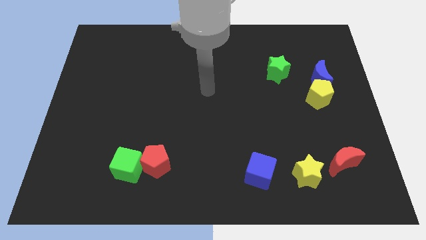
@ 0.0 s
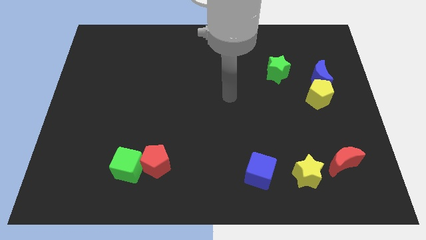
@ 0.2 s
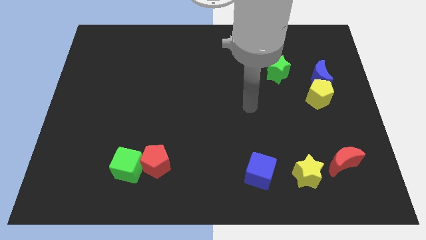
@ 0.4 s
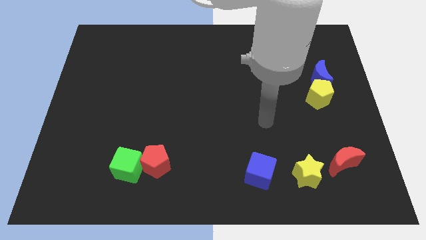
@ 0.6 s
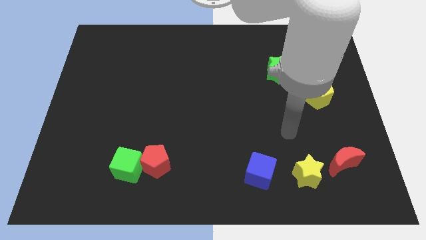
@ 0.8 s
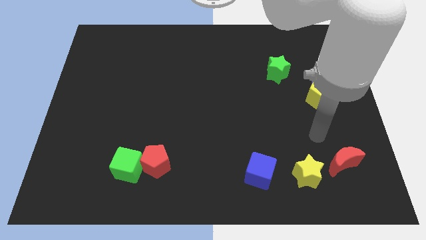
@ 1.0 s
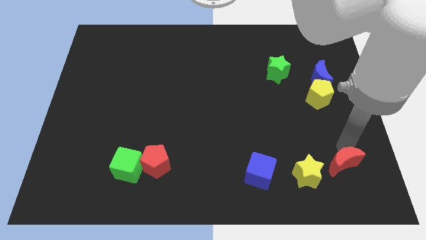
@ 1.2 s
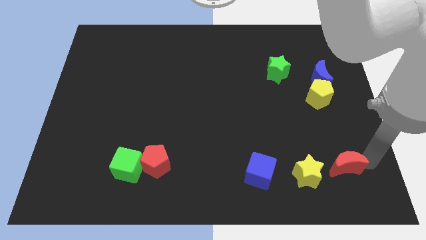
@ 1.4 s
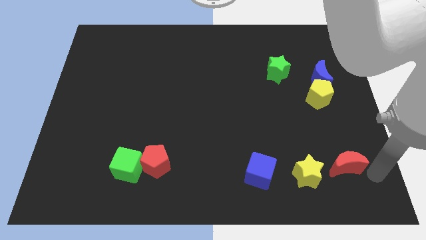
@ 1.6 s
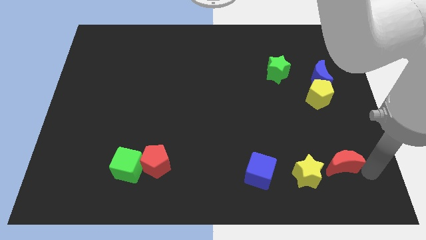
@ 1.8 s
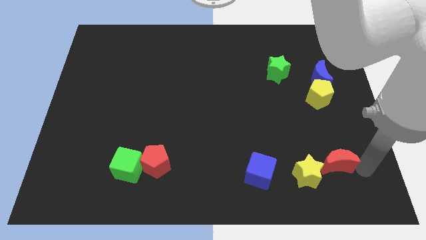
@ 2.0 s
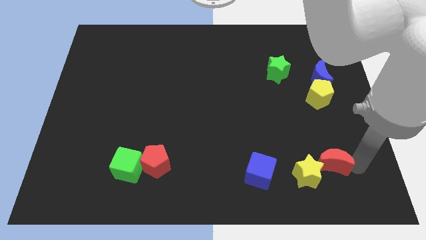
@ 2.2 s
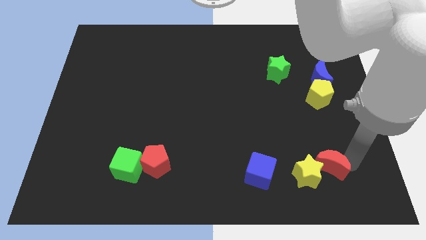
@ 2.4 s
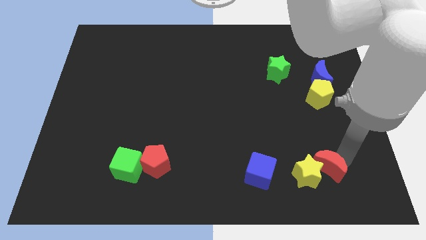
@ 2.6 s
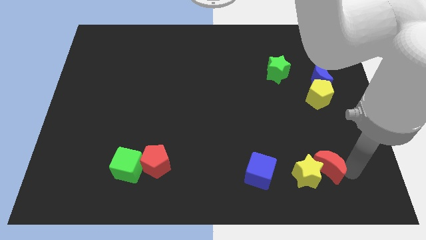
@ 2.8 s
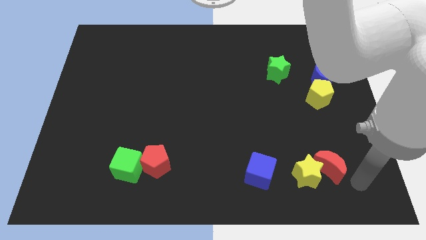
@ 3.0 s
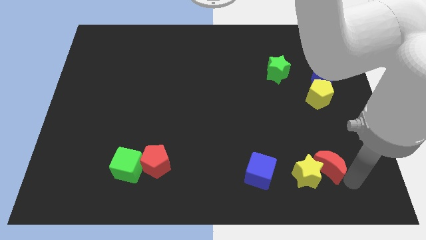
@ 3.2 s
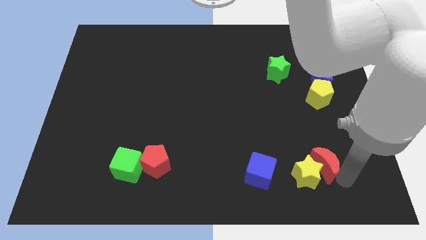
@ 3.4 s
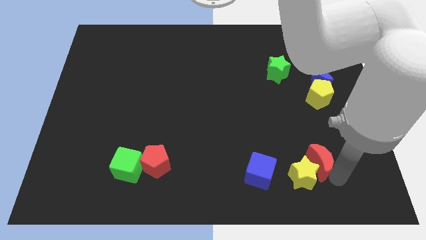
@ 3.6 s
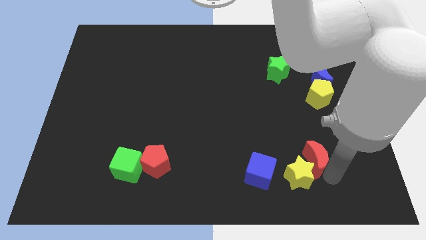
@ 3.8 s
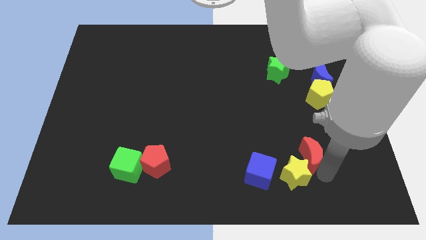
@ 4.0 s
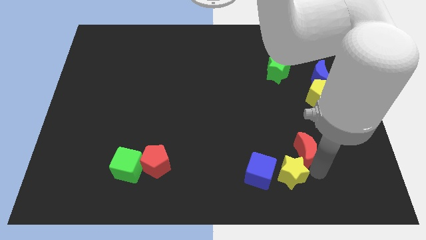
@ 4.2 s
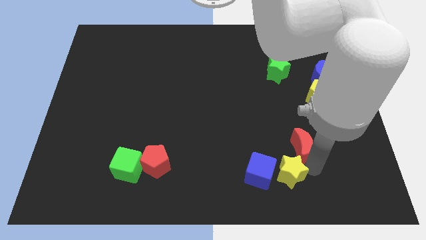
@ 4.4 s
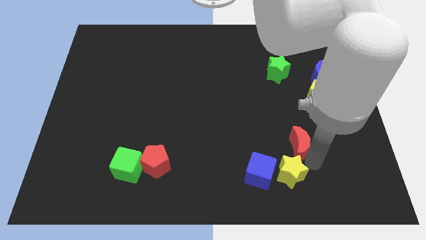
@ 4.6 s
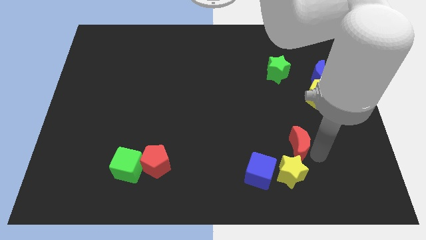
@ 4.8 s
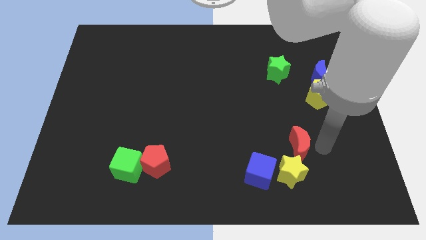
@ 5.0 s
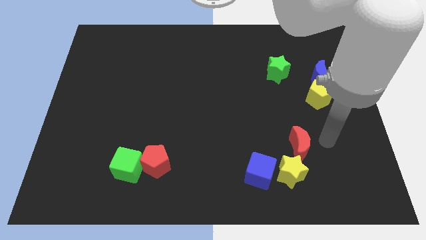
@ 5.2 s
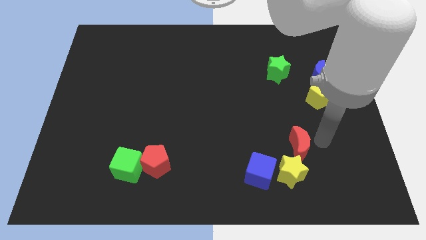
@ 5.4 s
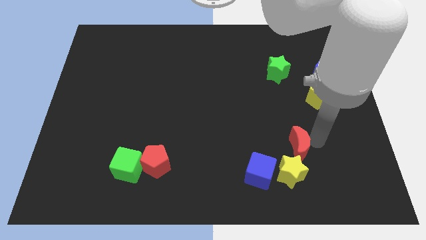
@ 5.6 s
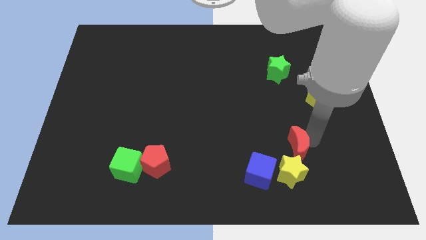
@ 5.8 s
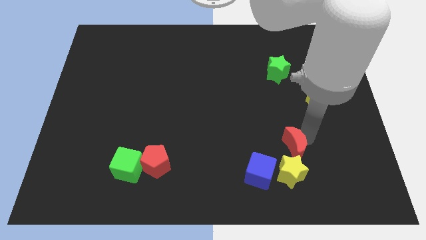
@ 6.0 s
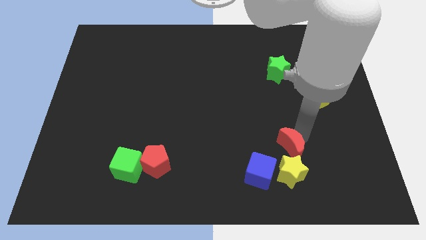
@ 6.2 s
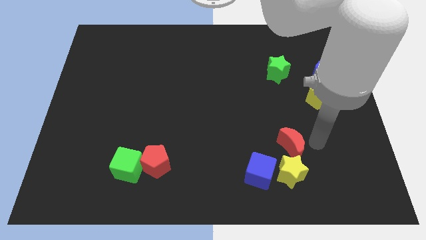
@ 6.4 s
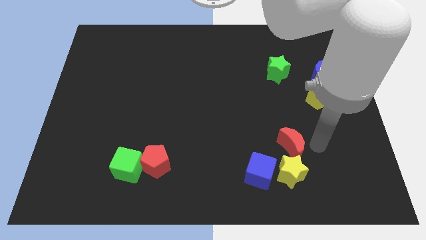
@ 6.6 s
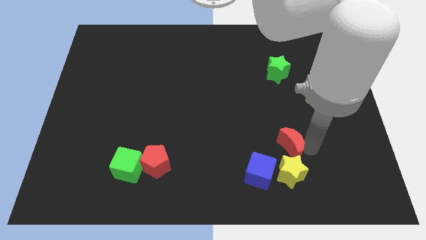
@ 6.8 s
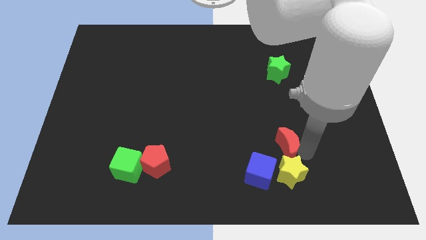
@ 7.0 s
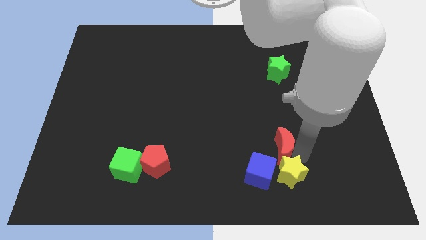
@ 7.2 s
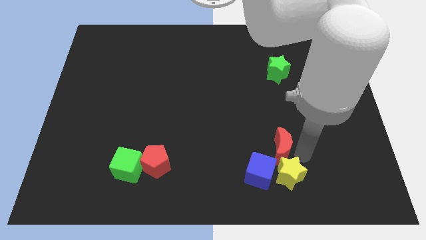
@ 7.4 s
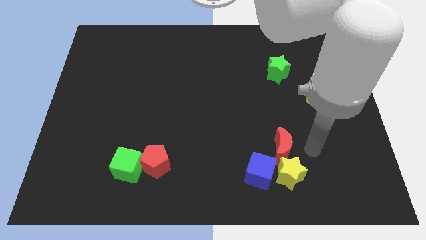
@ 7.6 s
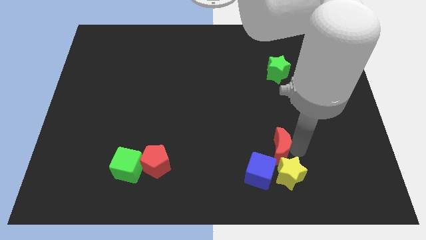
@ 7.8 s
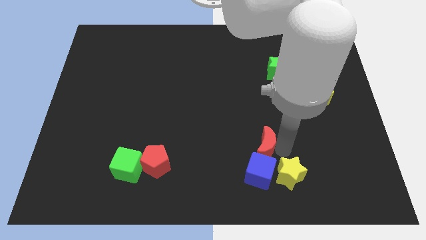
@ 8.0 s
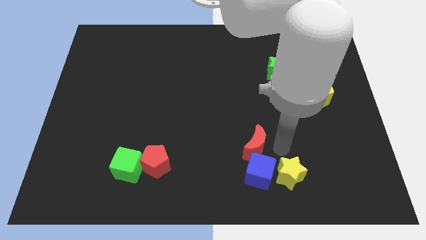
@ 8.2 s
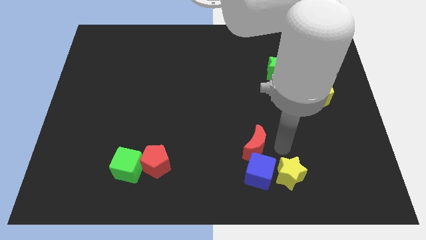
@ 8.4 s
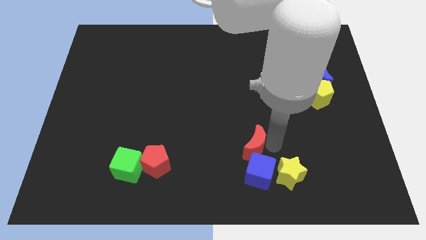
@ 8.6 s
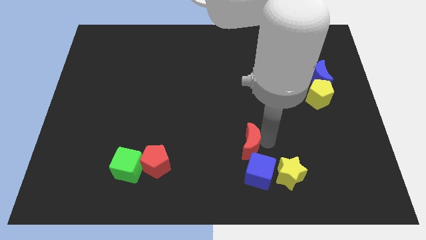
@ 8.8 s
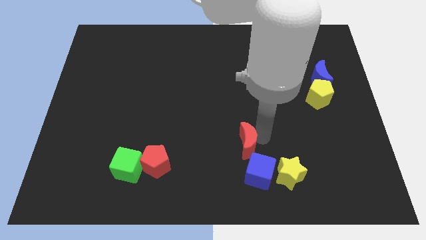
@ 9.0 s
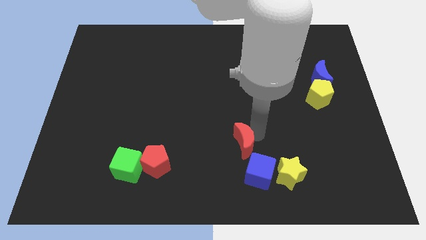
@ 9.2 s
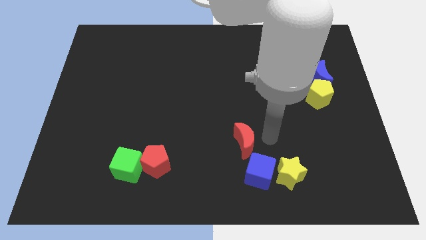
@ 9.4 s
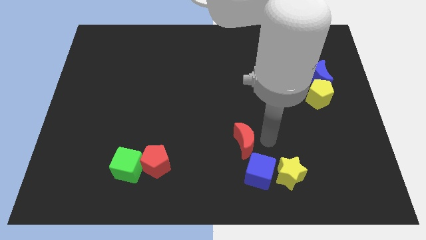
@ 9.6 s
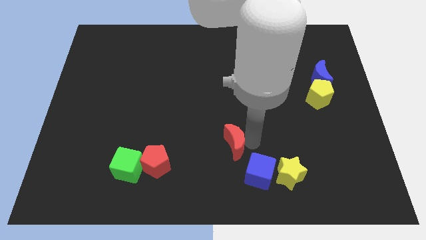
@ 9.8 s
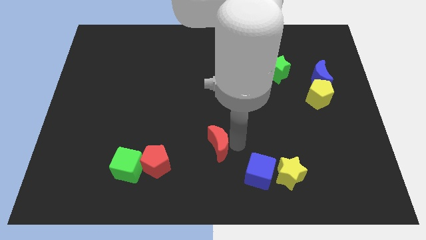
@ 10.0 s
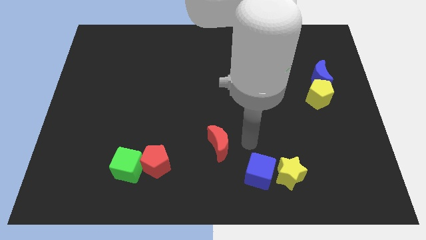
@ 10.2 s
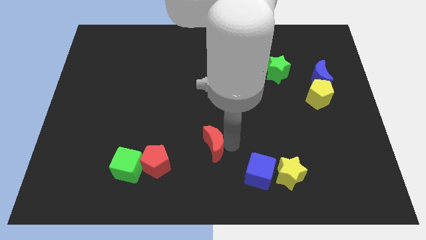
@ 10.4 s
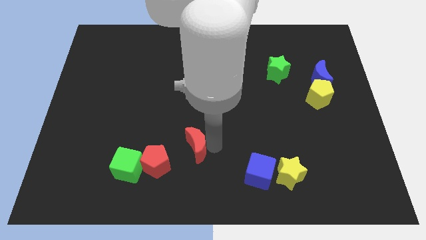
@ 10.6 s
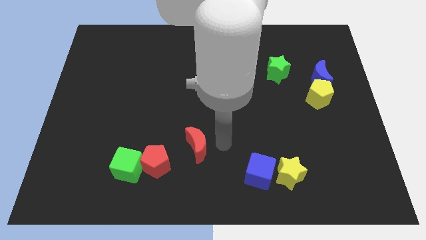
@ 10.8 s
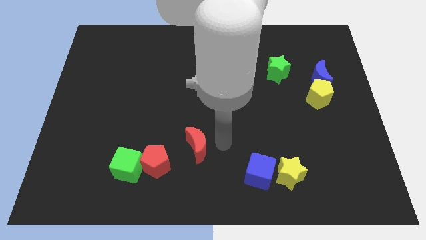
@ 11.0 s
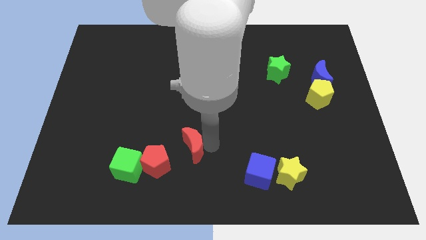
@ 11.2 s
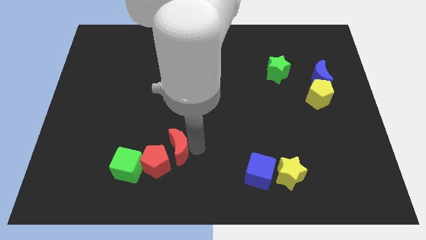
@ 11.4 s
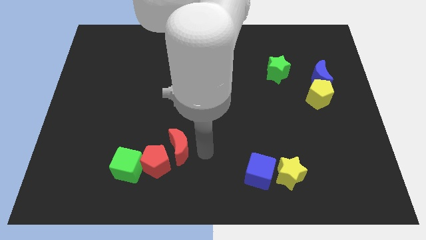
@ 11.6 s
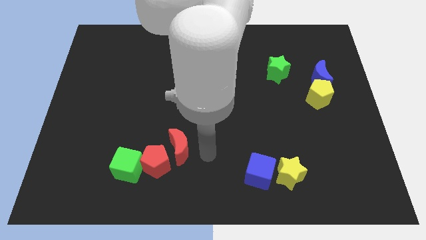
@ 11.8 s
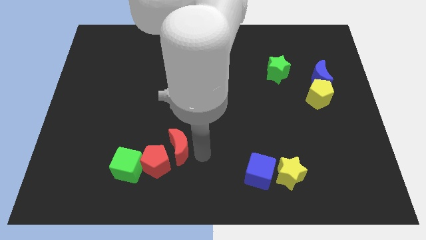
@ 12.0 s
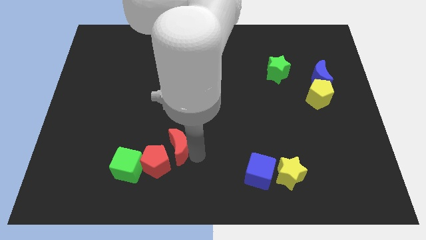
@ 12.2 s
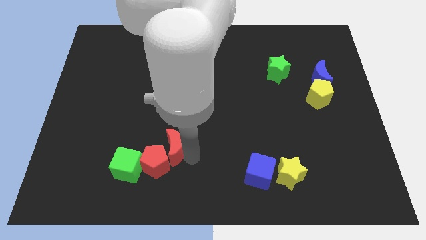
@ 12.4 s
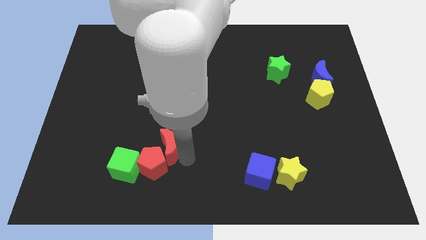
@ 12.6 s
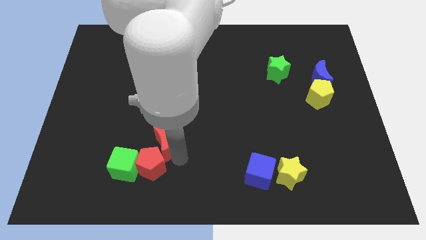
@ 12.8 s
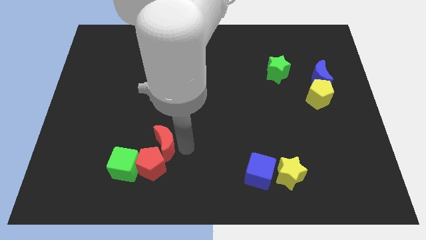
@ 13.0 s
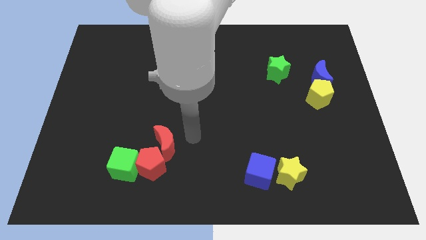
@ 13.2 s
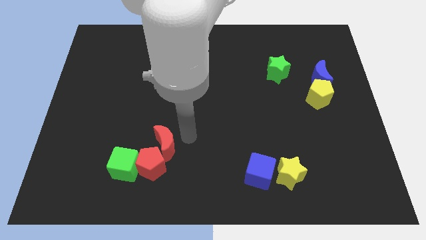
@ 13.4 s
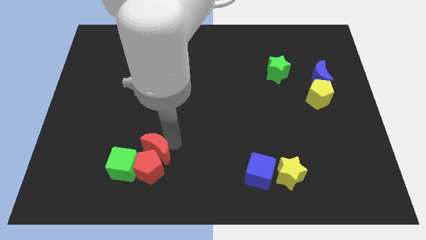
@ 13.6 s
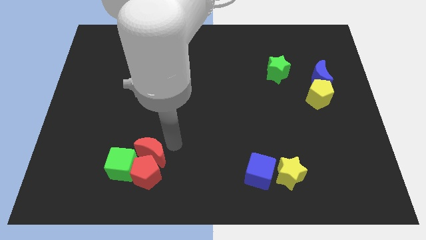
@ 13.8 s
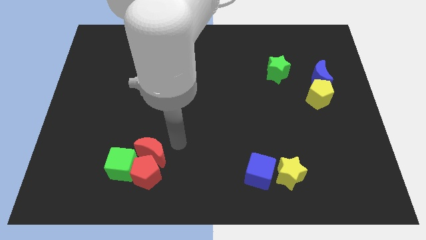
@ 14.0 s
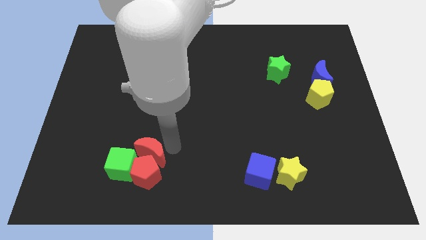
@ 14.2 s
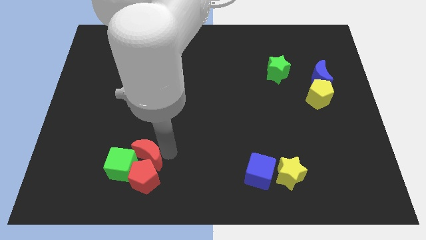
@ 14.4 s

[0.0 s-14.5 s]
push the red moon to the green cube
